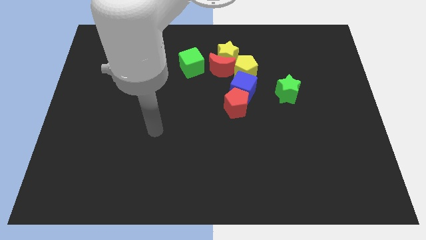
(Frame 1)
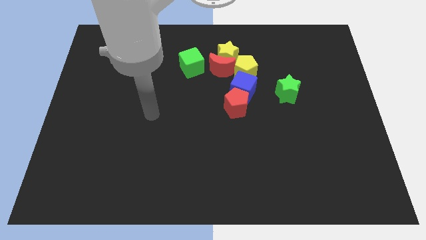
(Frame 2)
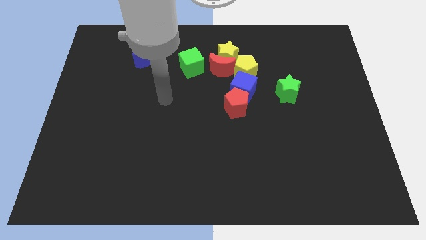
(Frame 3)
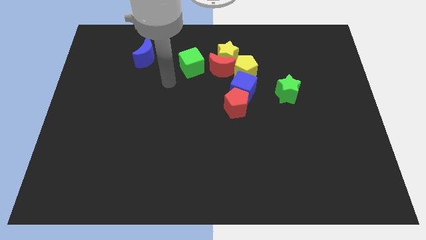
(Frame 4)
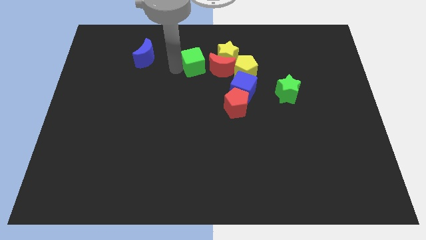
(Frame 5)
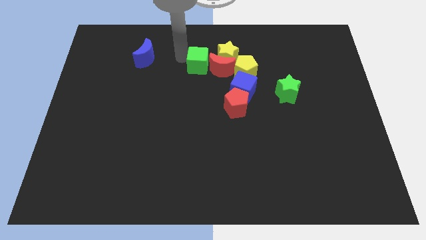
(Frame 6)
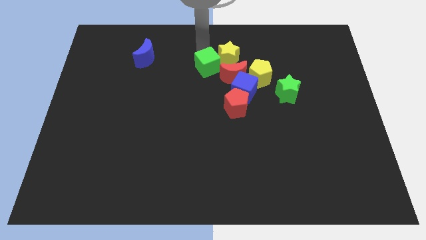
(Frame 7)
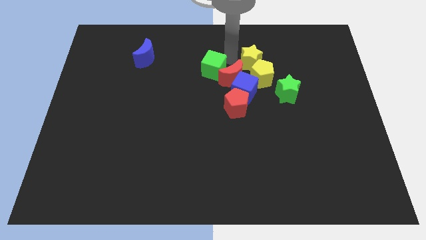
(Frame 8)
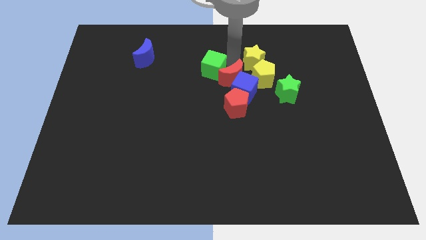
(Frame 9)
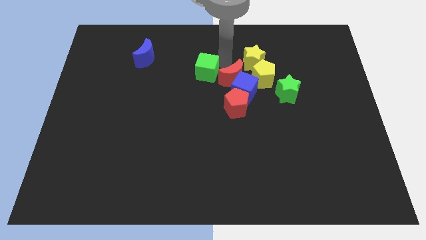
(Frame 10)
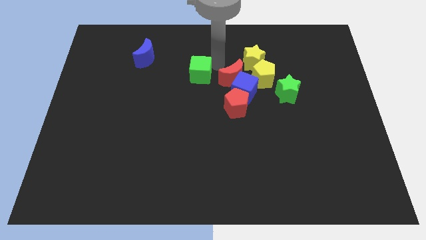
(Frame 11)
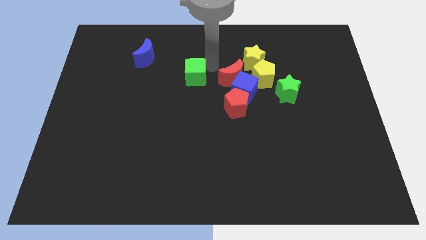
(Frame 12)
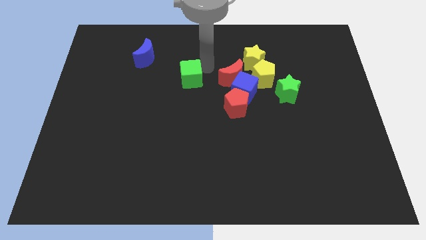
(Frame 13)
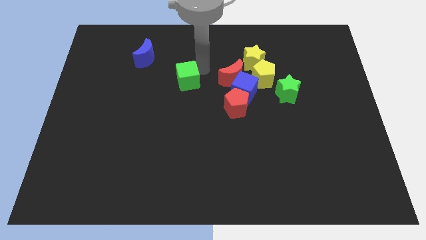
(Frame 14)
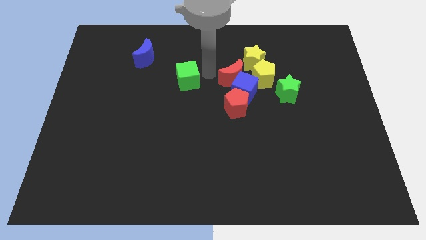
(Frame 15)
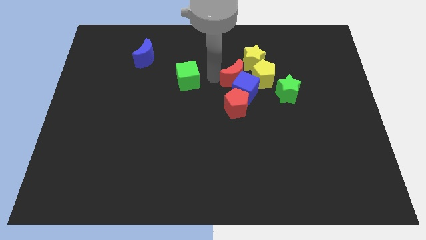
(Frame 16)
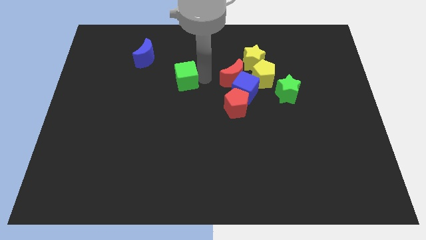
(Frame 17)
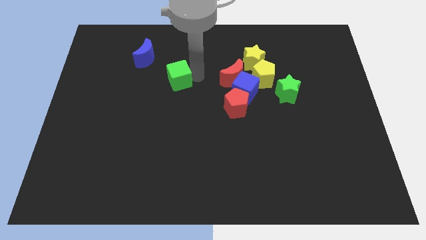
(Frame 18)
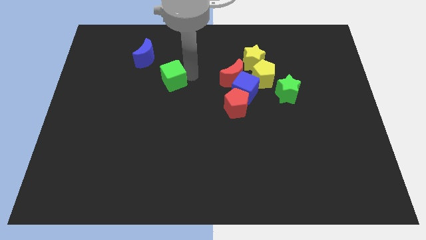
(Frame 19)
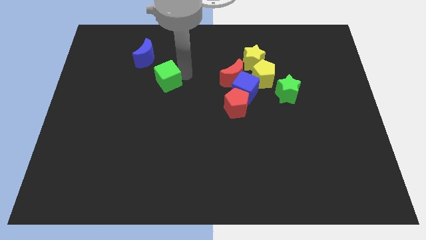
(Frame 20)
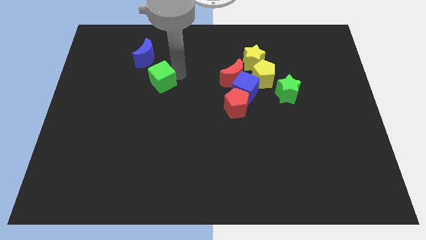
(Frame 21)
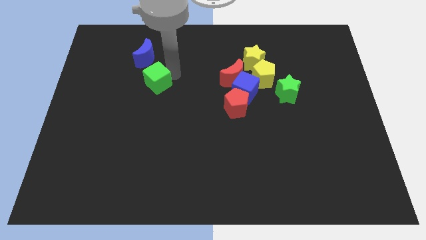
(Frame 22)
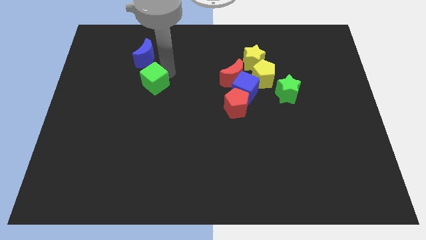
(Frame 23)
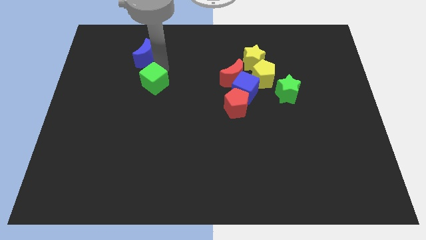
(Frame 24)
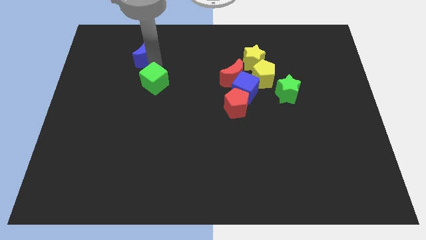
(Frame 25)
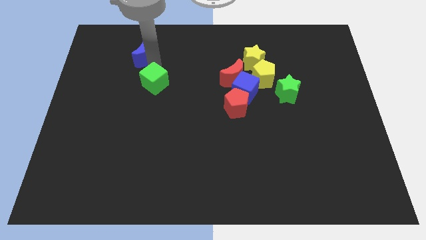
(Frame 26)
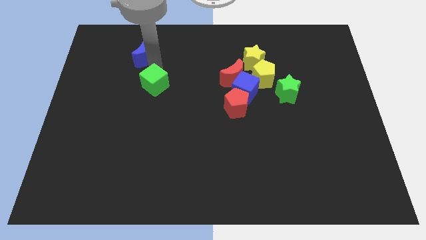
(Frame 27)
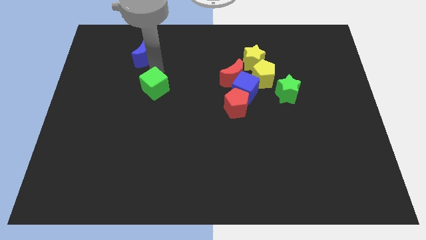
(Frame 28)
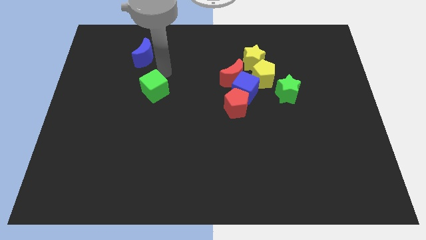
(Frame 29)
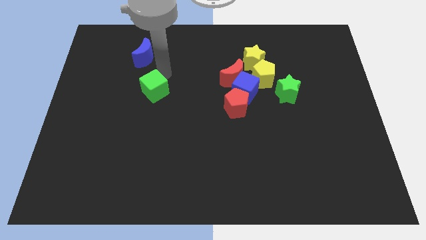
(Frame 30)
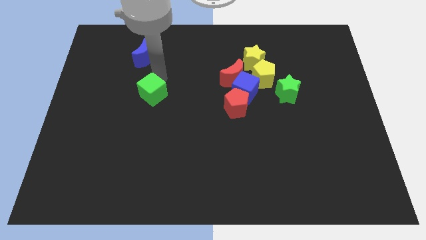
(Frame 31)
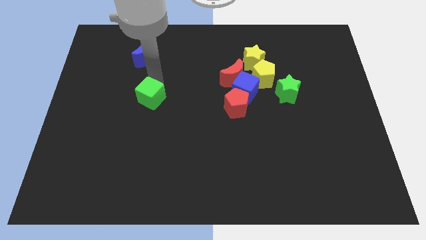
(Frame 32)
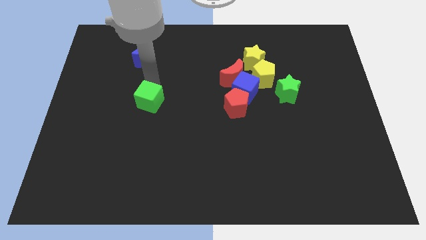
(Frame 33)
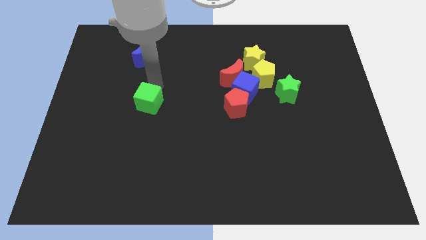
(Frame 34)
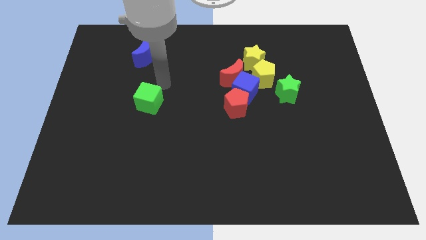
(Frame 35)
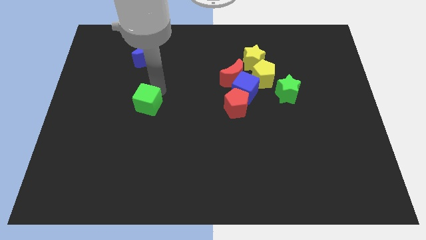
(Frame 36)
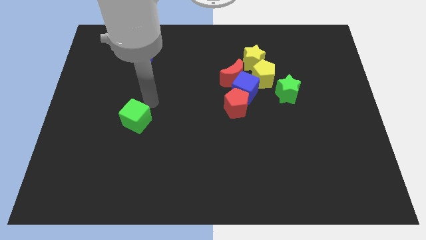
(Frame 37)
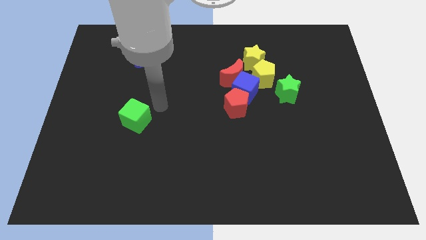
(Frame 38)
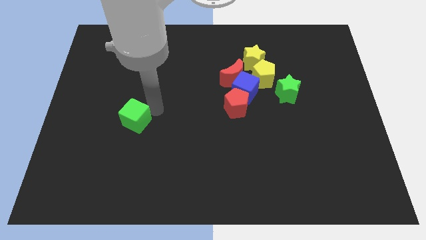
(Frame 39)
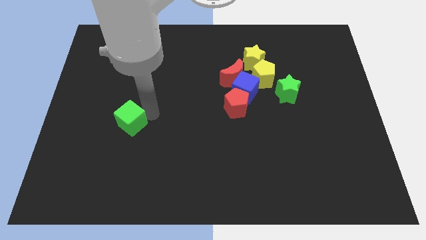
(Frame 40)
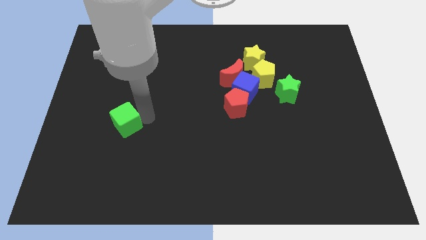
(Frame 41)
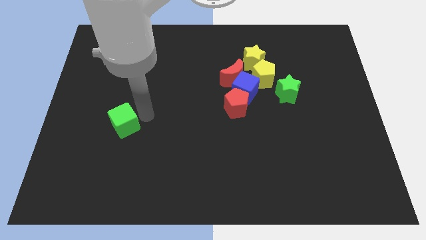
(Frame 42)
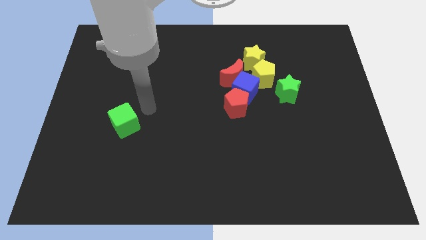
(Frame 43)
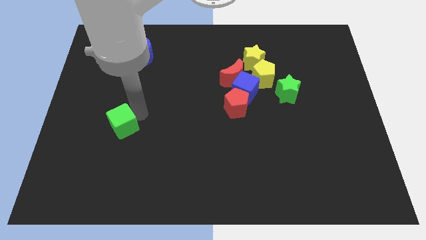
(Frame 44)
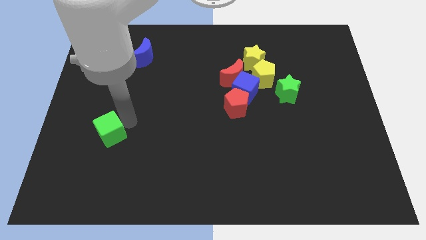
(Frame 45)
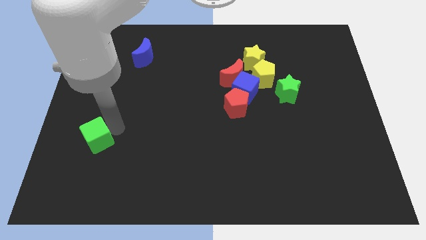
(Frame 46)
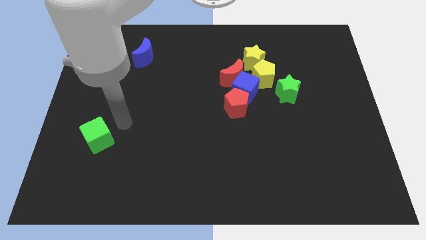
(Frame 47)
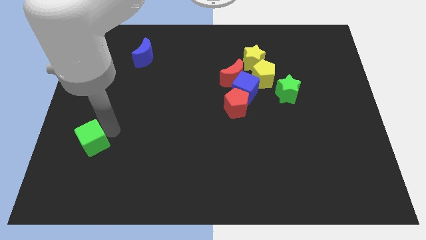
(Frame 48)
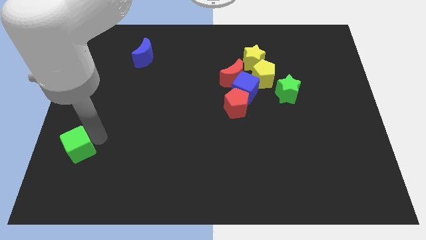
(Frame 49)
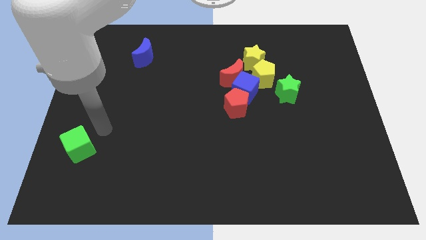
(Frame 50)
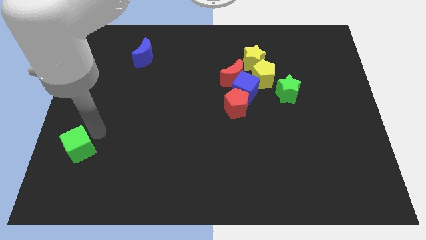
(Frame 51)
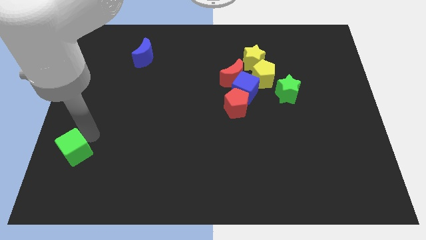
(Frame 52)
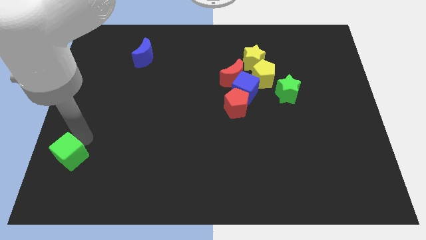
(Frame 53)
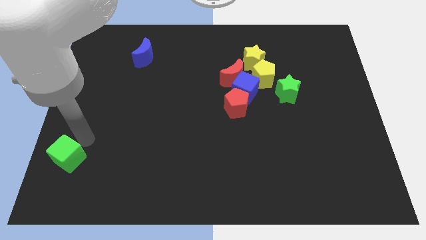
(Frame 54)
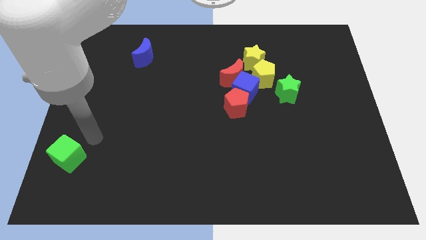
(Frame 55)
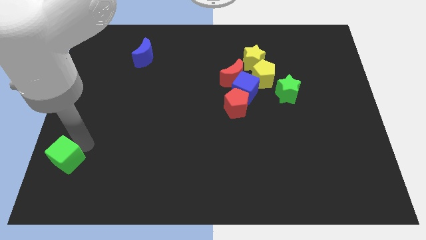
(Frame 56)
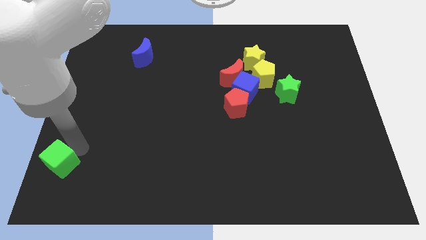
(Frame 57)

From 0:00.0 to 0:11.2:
push the green cube to the lower left corner
